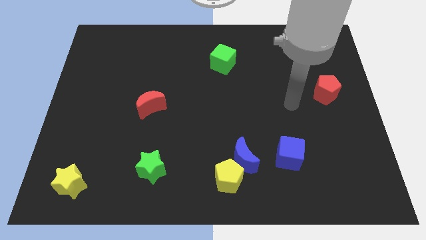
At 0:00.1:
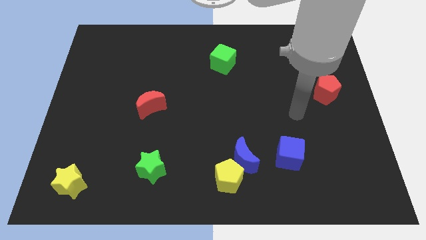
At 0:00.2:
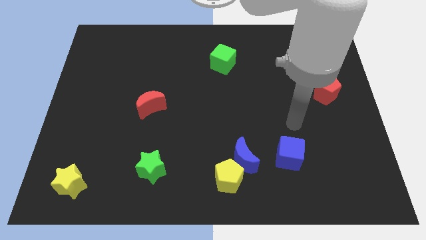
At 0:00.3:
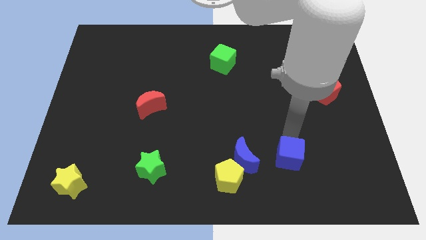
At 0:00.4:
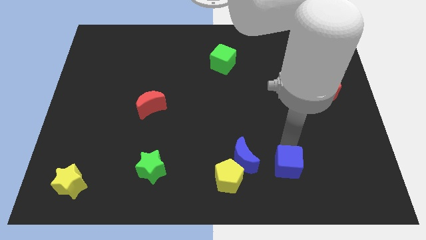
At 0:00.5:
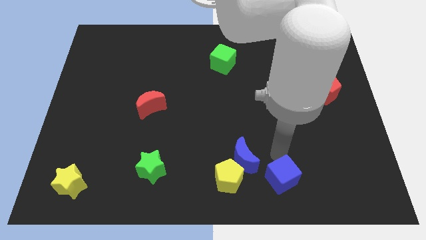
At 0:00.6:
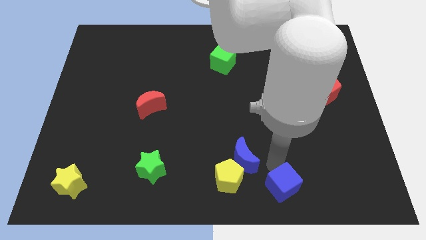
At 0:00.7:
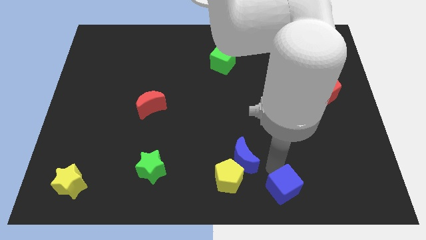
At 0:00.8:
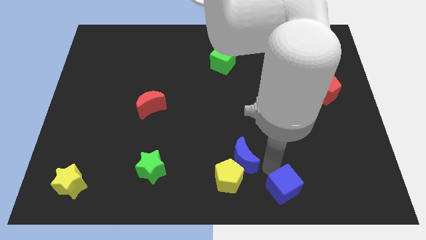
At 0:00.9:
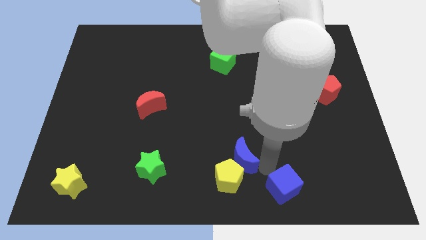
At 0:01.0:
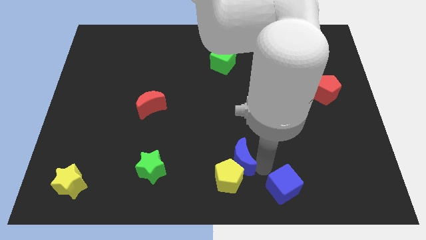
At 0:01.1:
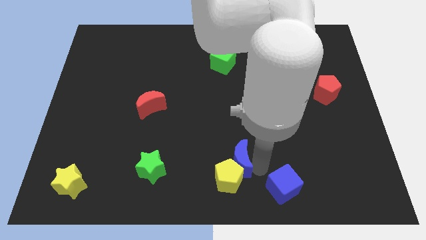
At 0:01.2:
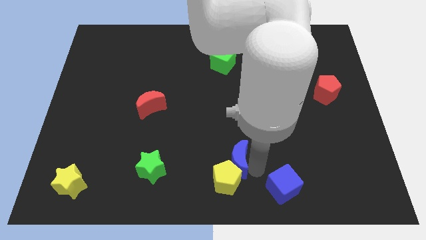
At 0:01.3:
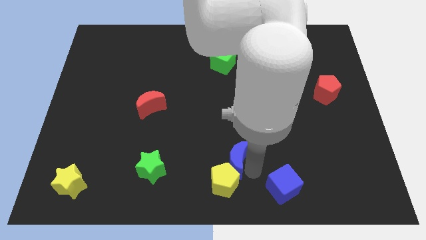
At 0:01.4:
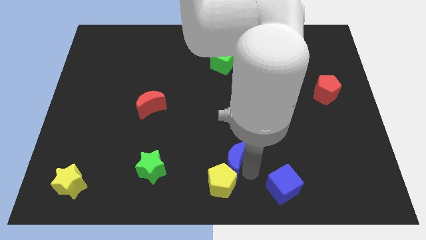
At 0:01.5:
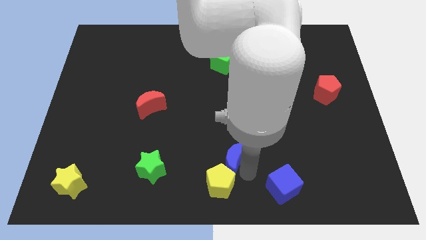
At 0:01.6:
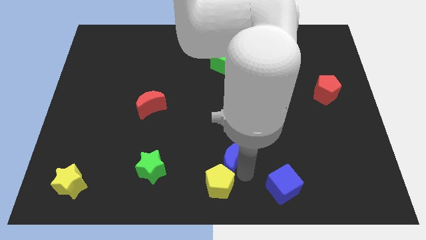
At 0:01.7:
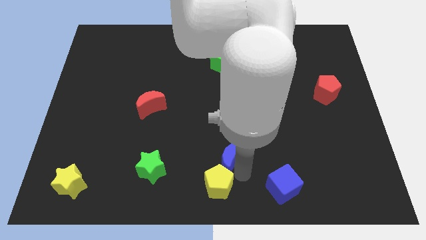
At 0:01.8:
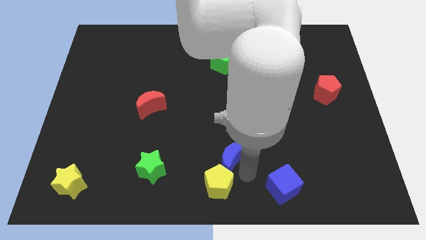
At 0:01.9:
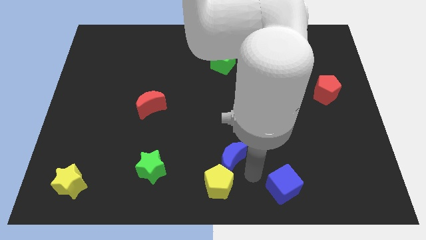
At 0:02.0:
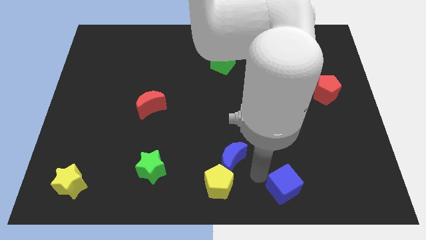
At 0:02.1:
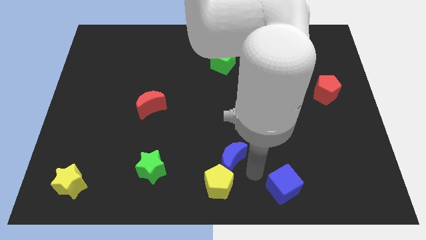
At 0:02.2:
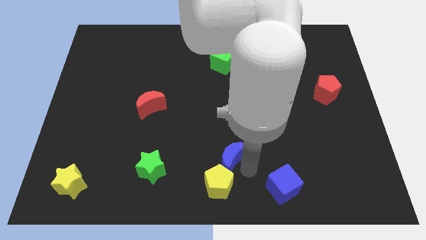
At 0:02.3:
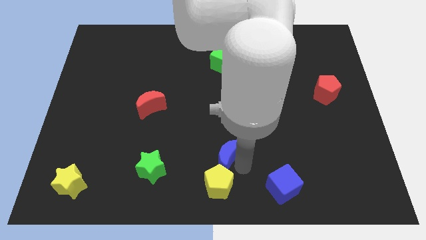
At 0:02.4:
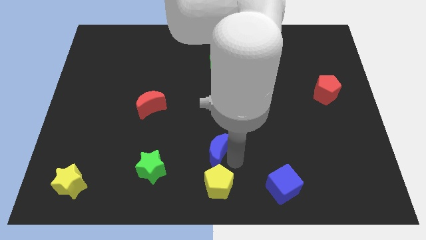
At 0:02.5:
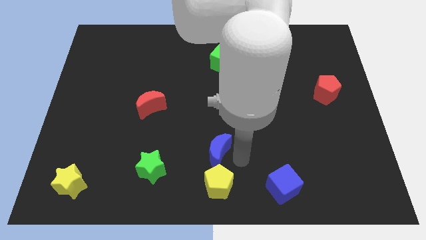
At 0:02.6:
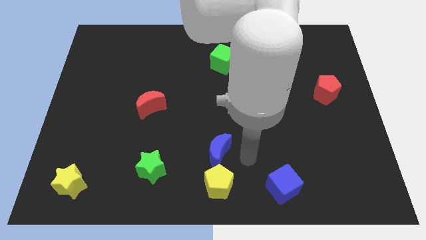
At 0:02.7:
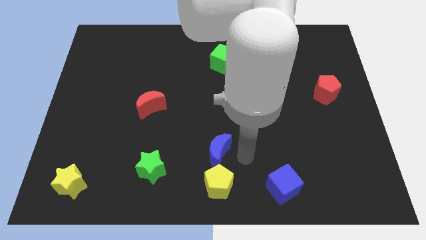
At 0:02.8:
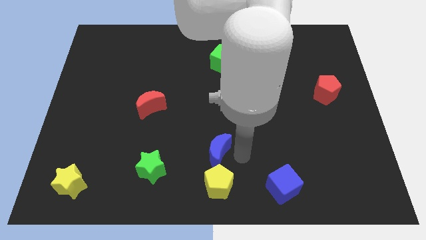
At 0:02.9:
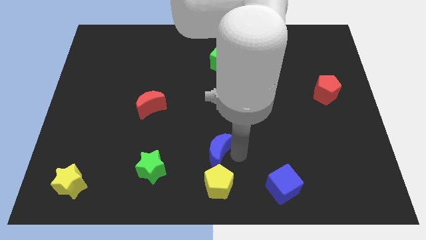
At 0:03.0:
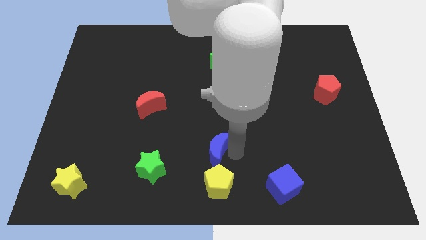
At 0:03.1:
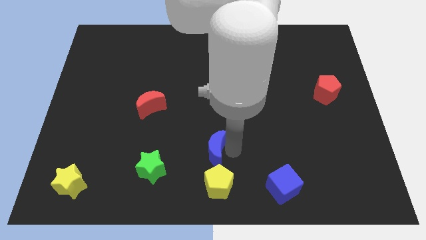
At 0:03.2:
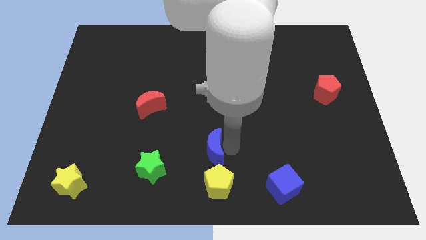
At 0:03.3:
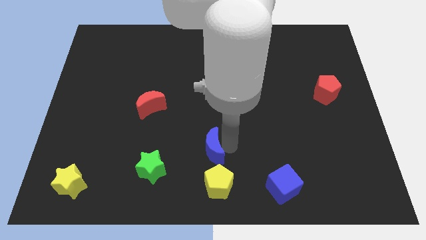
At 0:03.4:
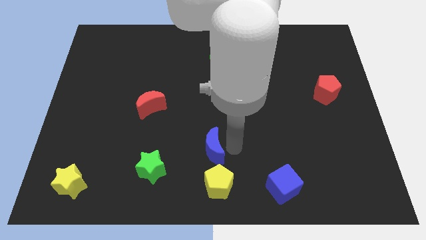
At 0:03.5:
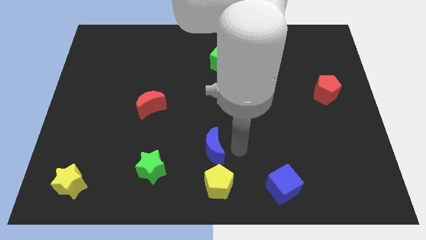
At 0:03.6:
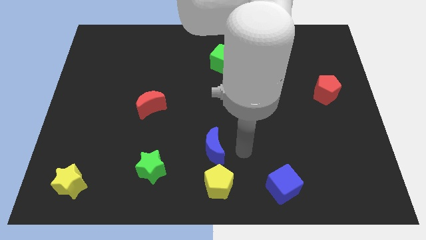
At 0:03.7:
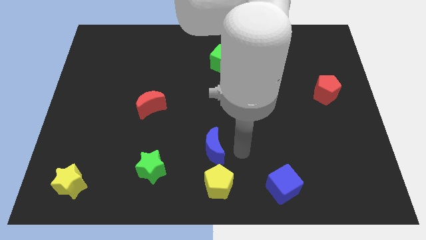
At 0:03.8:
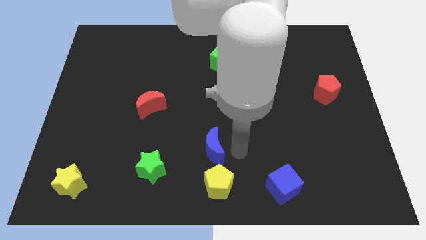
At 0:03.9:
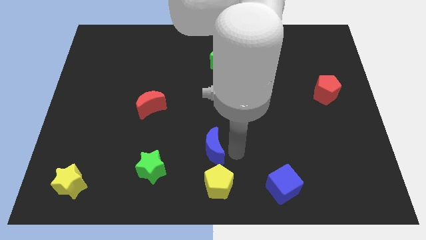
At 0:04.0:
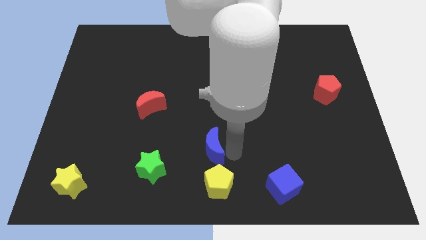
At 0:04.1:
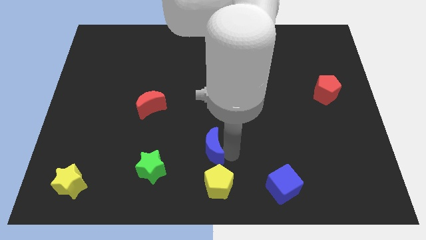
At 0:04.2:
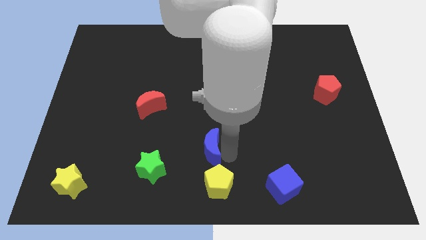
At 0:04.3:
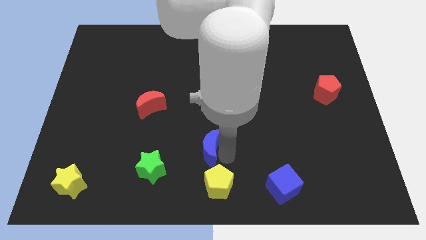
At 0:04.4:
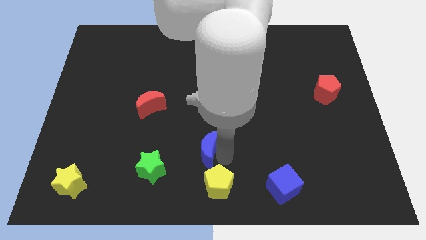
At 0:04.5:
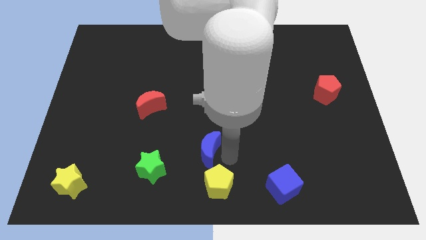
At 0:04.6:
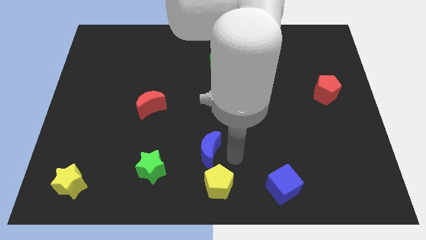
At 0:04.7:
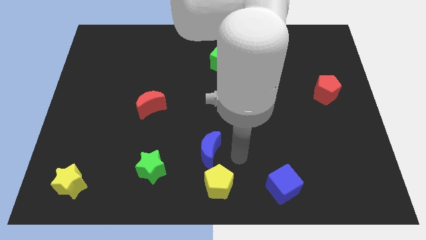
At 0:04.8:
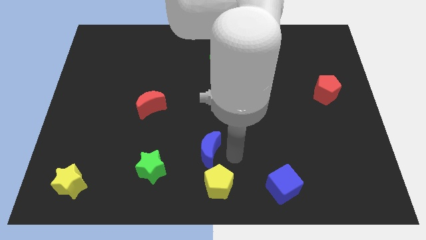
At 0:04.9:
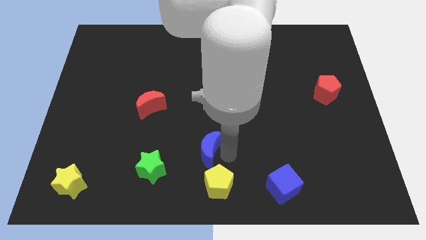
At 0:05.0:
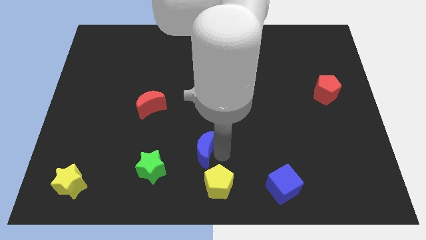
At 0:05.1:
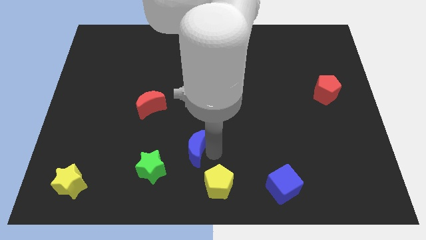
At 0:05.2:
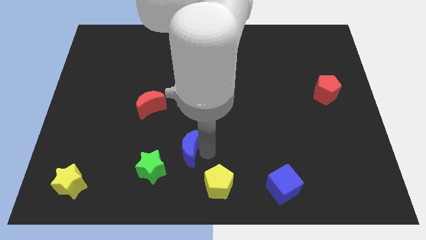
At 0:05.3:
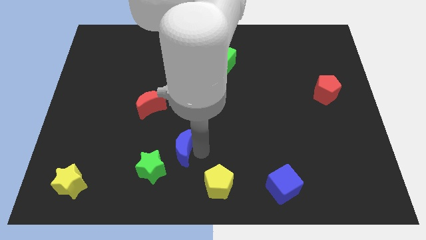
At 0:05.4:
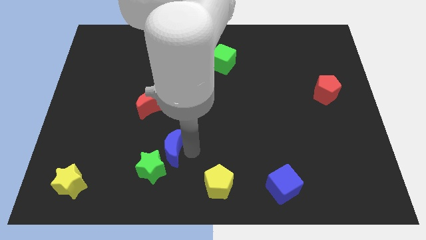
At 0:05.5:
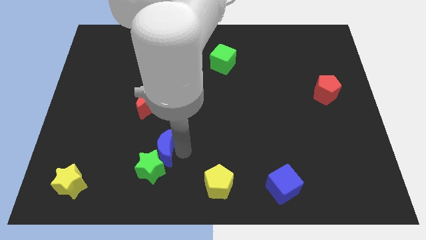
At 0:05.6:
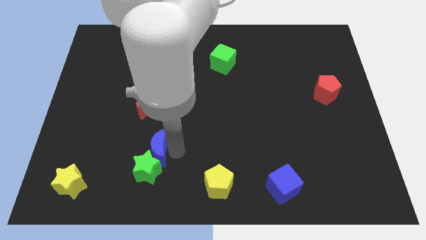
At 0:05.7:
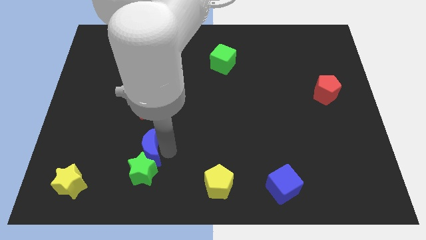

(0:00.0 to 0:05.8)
put the blue moon to the top left of the green star
